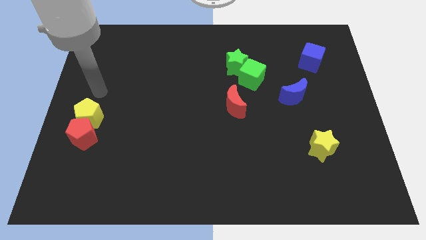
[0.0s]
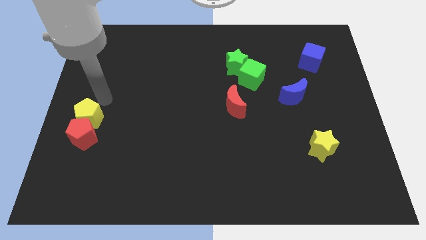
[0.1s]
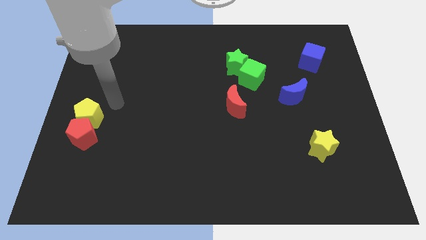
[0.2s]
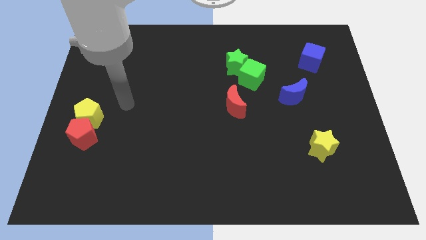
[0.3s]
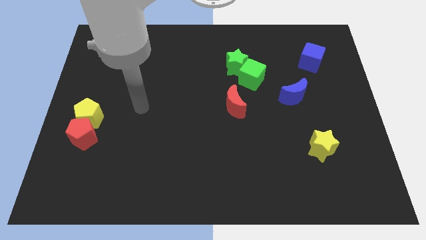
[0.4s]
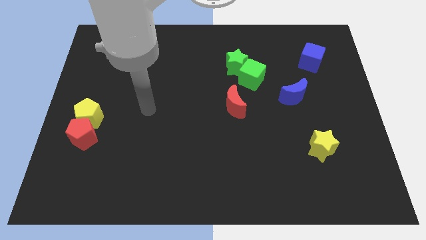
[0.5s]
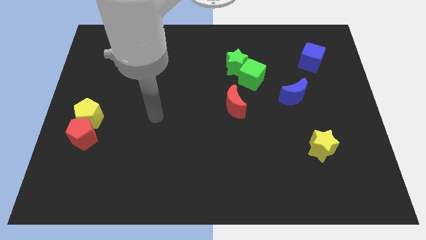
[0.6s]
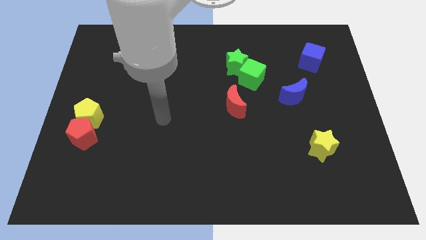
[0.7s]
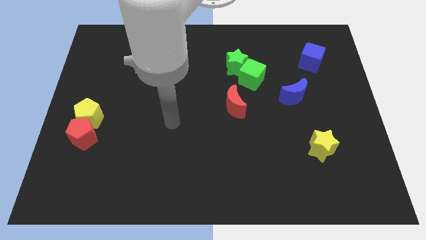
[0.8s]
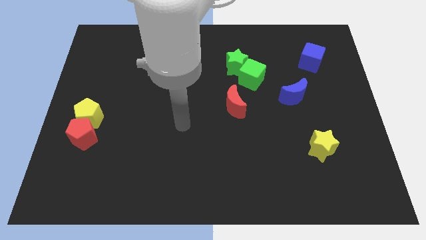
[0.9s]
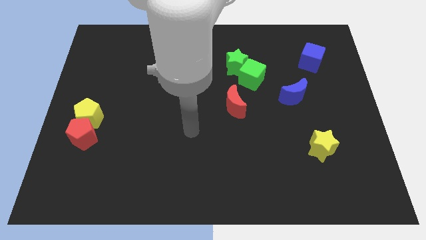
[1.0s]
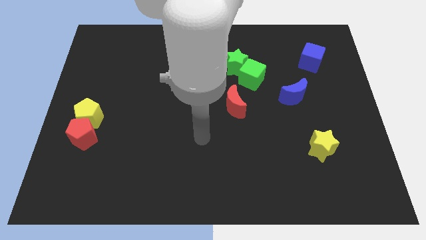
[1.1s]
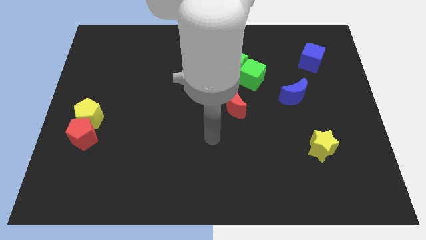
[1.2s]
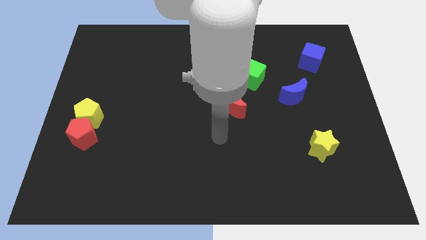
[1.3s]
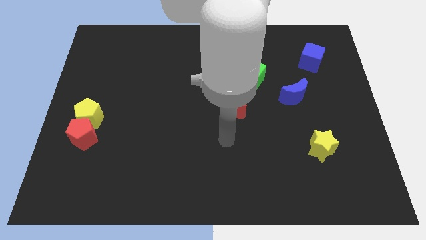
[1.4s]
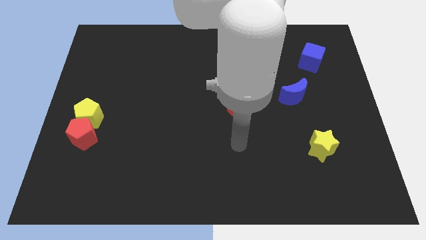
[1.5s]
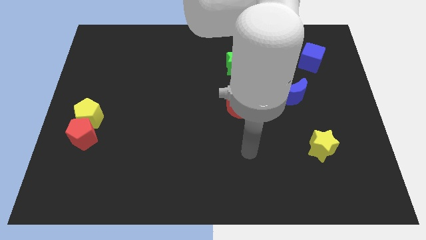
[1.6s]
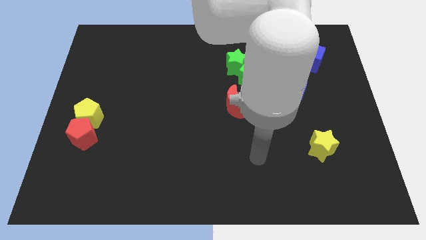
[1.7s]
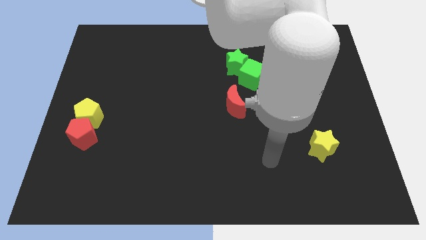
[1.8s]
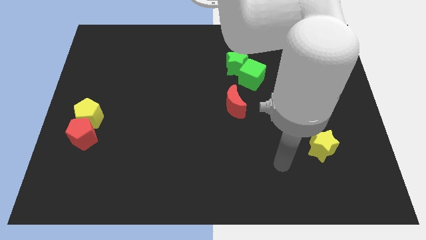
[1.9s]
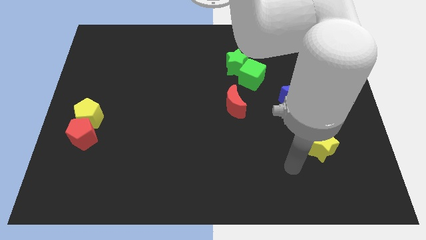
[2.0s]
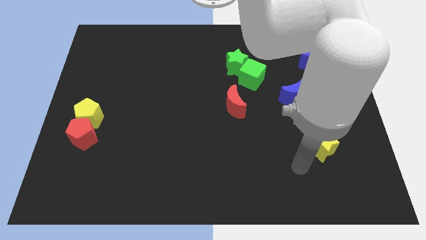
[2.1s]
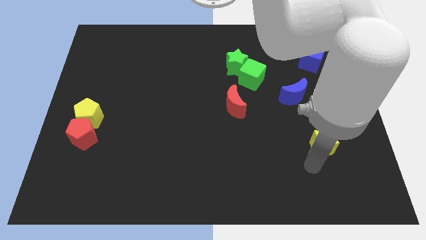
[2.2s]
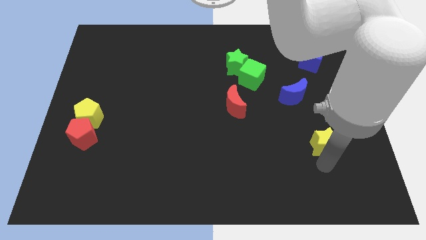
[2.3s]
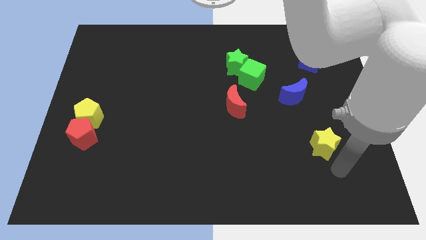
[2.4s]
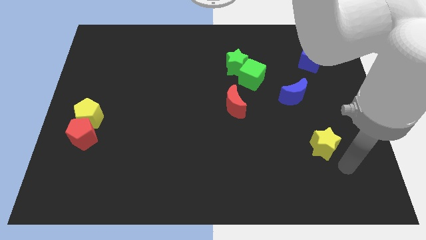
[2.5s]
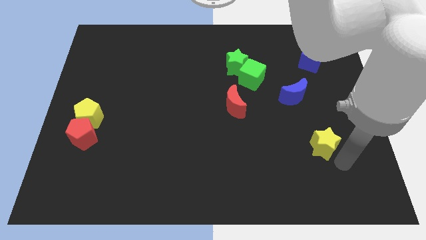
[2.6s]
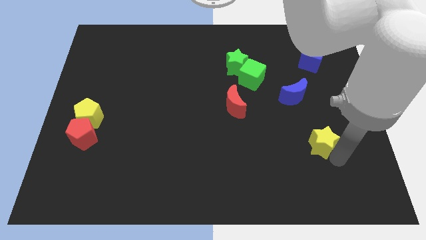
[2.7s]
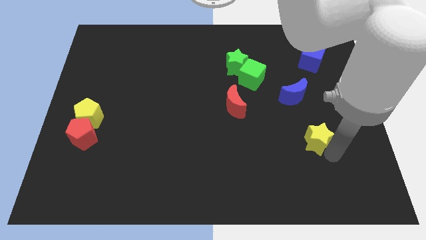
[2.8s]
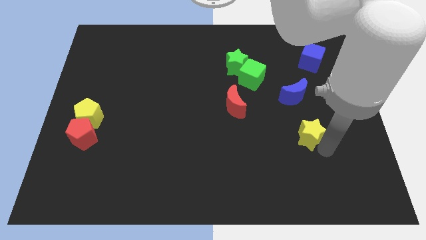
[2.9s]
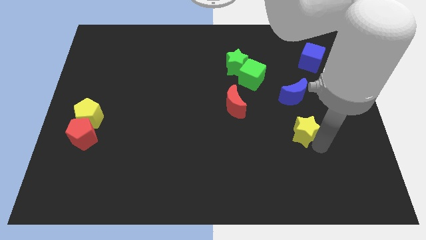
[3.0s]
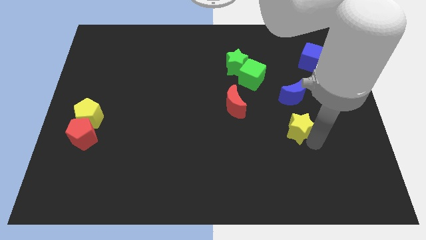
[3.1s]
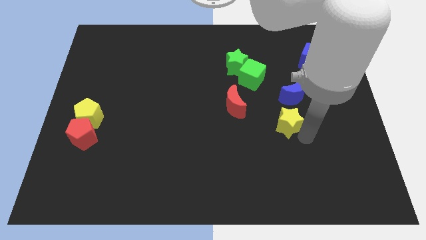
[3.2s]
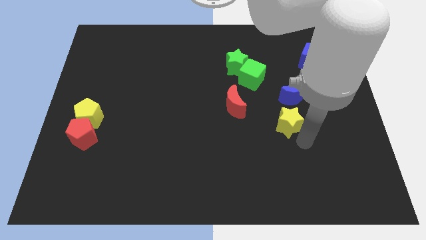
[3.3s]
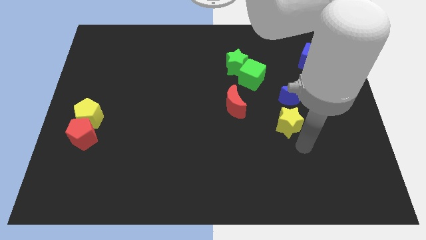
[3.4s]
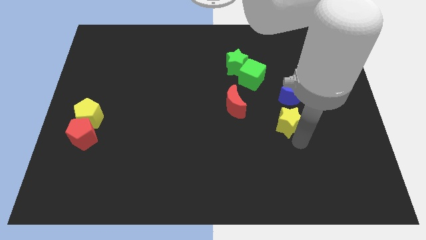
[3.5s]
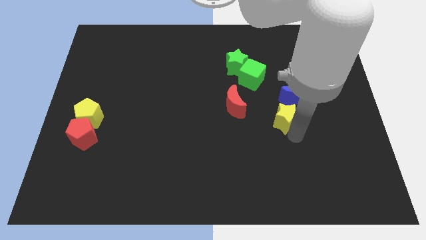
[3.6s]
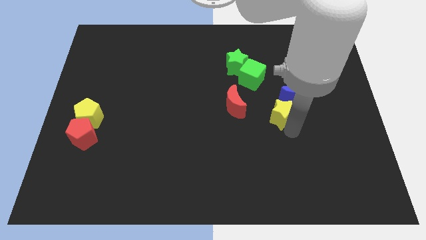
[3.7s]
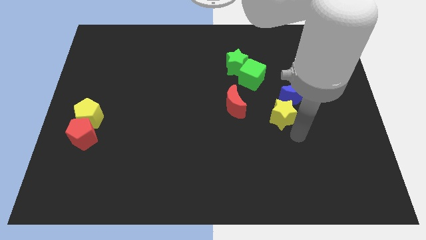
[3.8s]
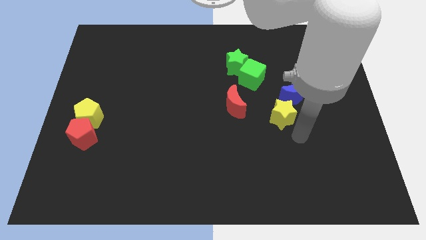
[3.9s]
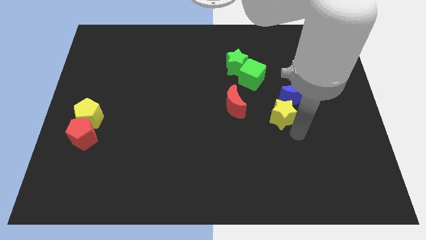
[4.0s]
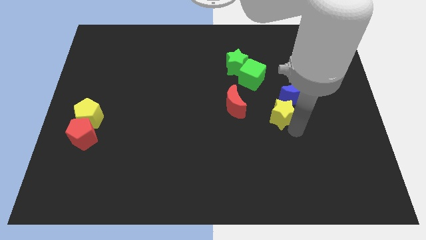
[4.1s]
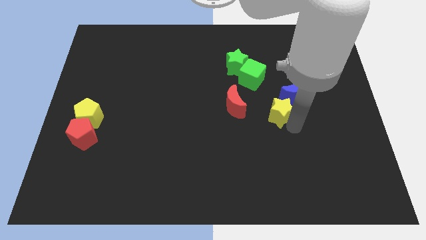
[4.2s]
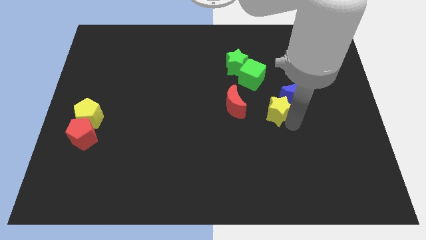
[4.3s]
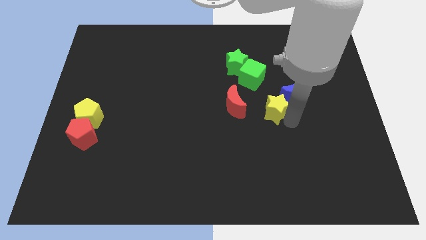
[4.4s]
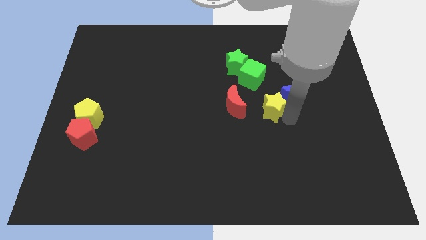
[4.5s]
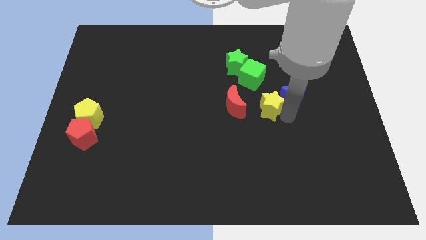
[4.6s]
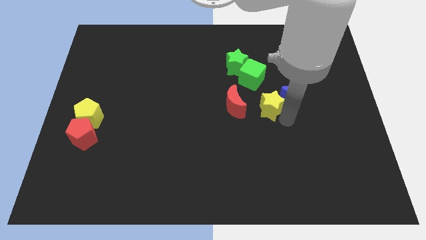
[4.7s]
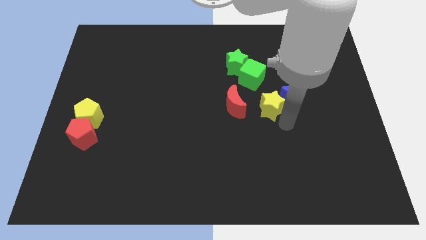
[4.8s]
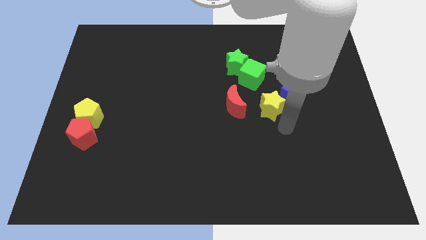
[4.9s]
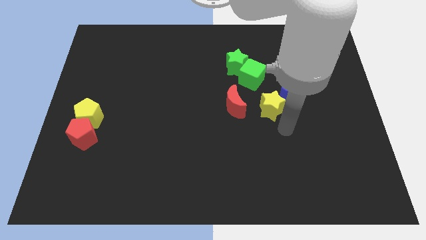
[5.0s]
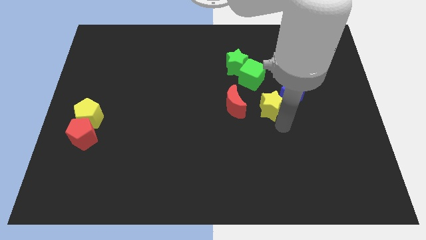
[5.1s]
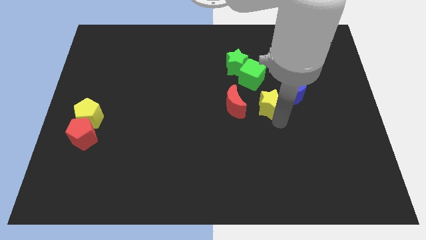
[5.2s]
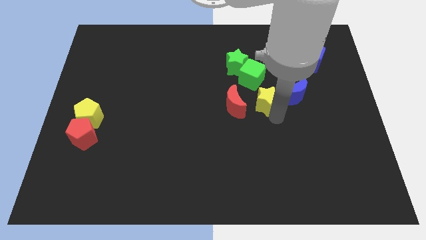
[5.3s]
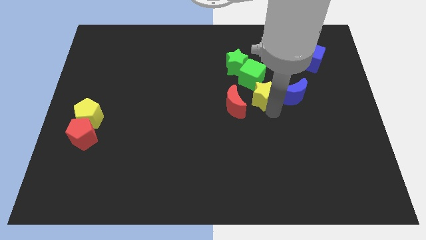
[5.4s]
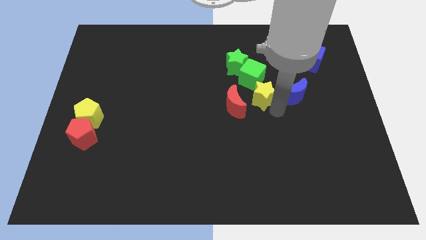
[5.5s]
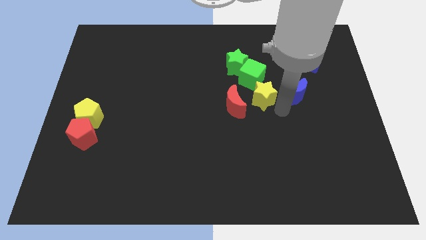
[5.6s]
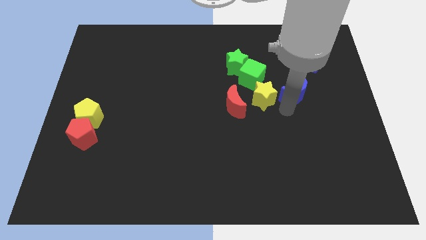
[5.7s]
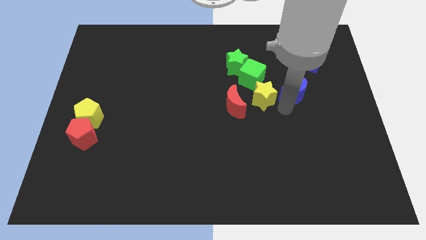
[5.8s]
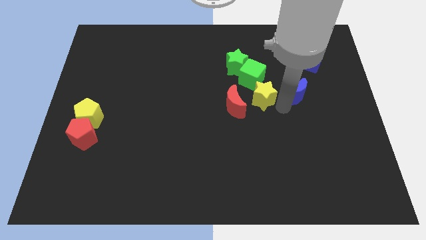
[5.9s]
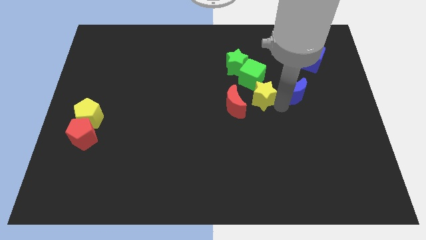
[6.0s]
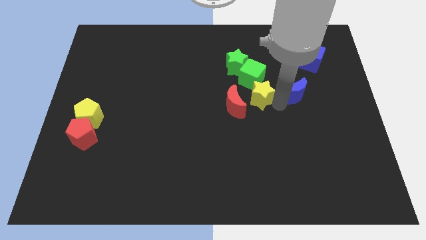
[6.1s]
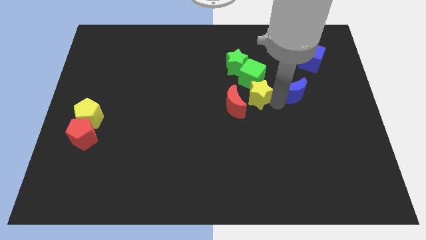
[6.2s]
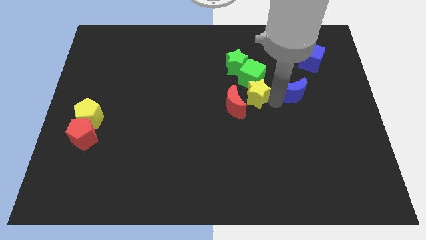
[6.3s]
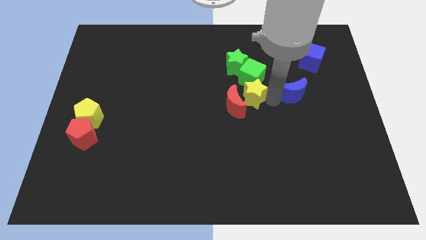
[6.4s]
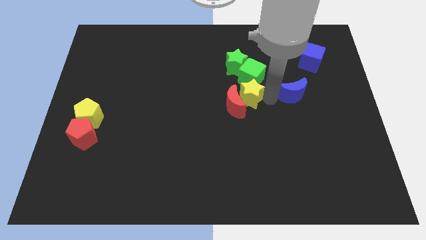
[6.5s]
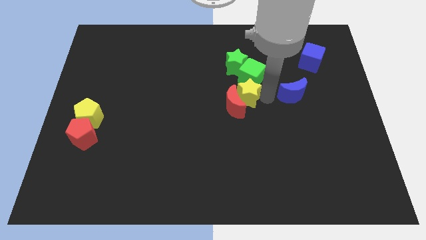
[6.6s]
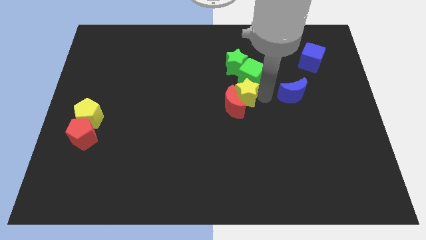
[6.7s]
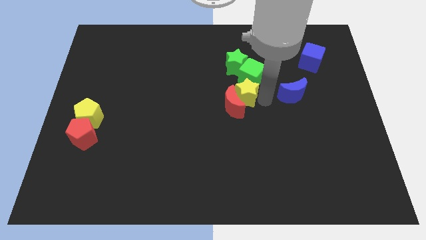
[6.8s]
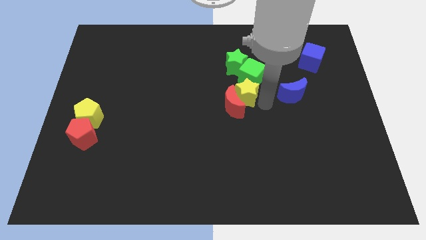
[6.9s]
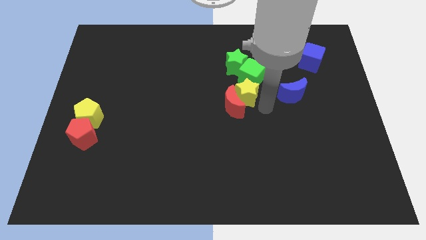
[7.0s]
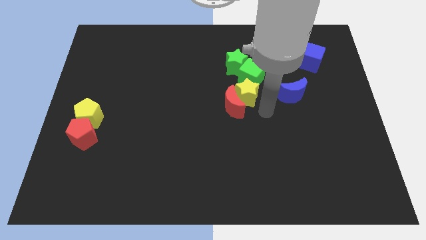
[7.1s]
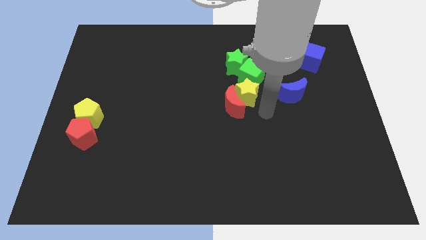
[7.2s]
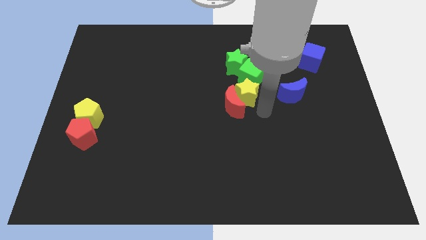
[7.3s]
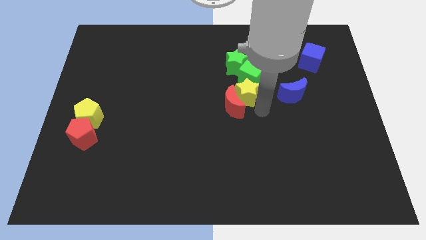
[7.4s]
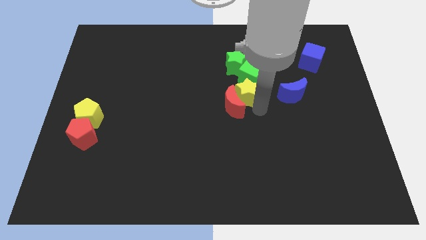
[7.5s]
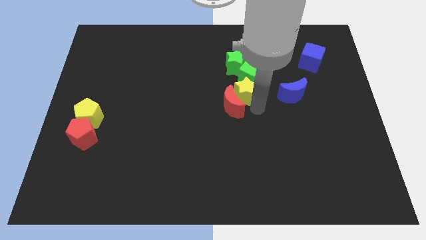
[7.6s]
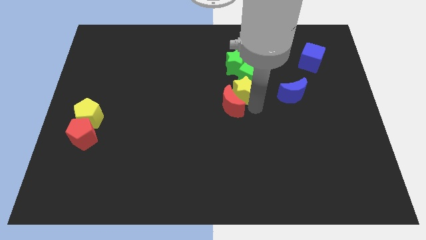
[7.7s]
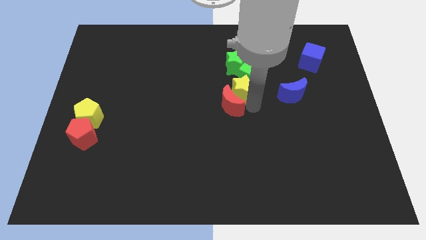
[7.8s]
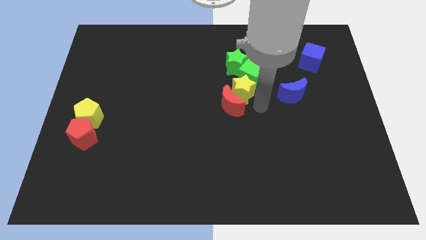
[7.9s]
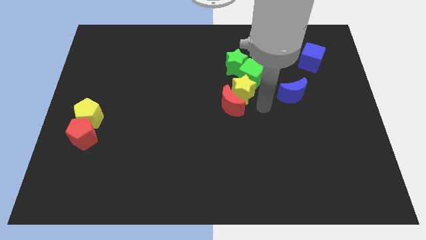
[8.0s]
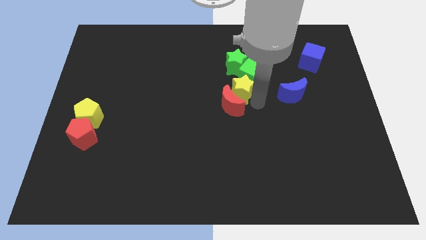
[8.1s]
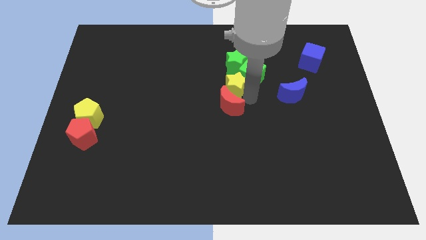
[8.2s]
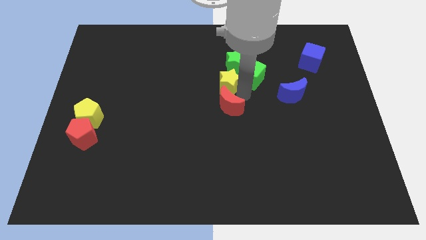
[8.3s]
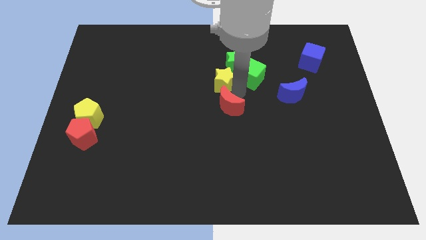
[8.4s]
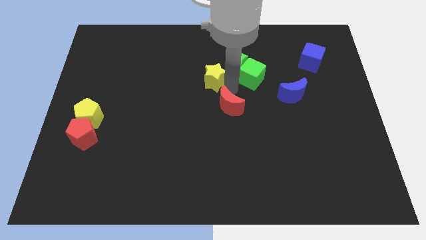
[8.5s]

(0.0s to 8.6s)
move the yellow star left of the green star
